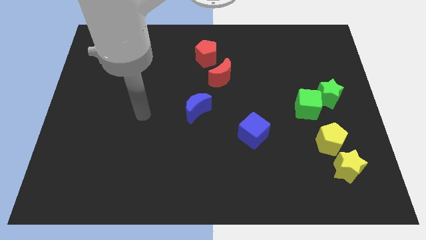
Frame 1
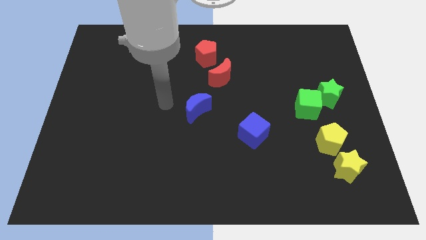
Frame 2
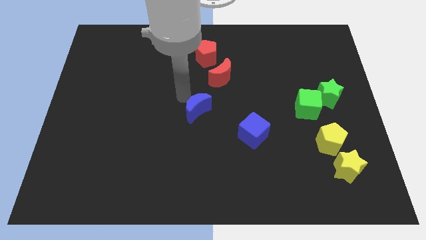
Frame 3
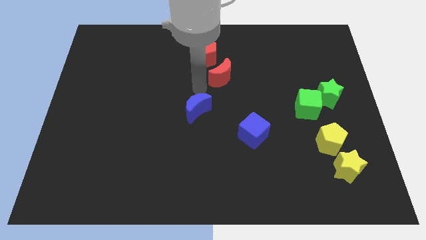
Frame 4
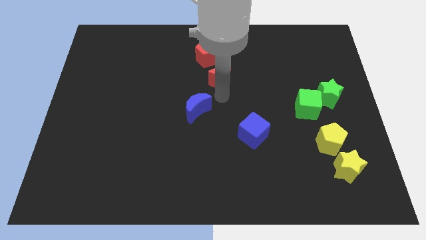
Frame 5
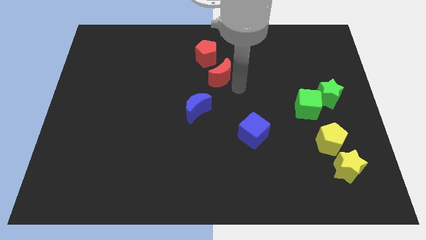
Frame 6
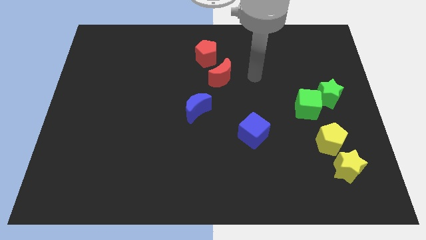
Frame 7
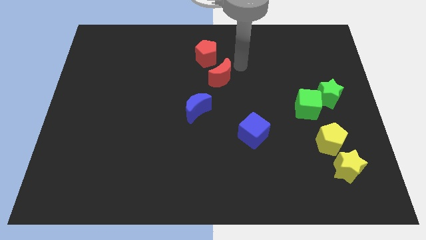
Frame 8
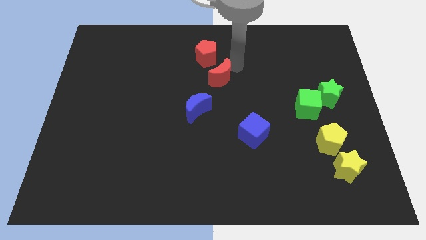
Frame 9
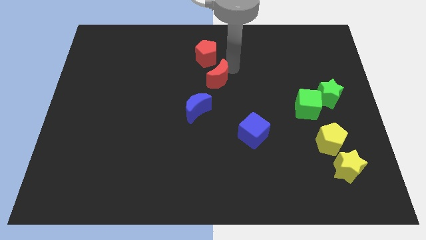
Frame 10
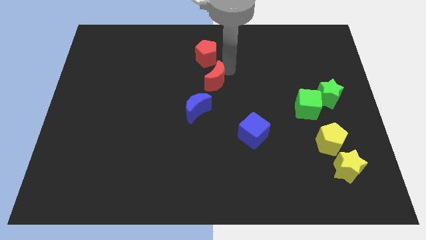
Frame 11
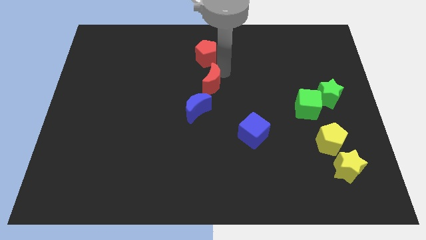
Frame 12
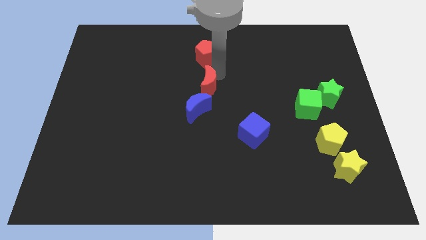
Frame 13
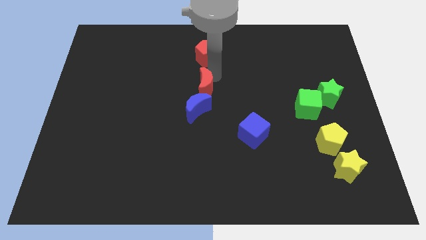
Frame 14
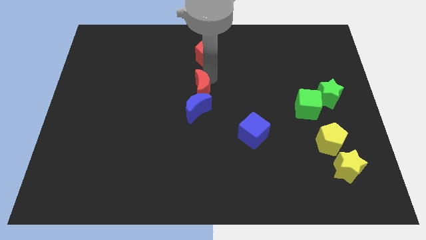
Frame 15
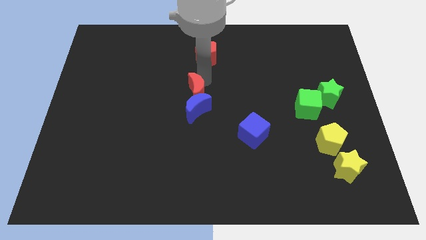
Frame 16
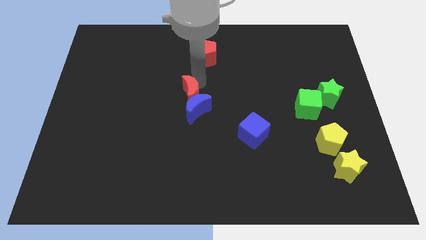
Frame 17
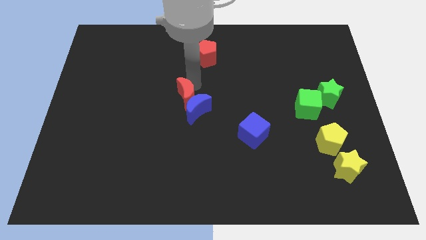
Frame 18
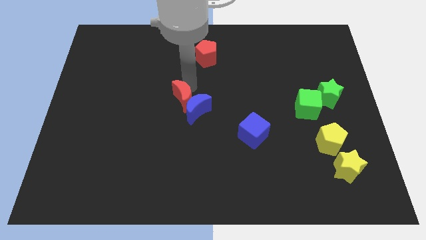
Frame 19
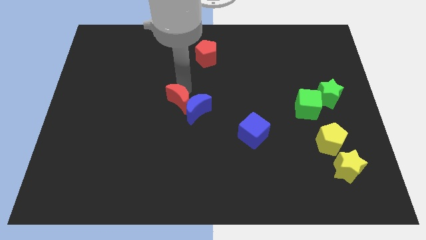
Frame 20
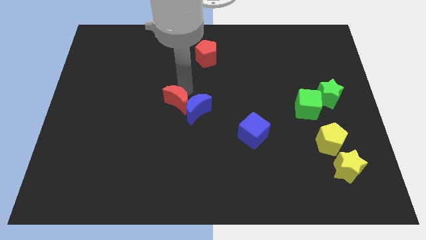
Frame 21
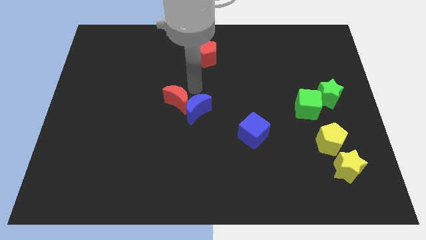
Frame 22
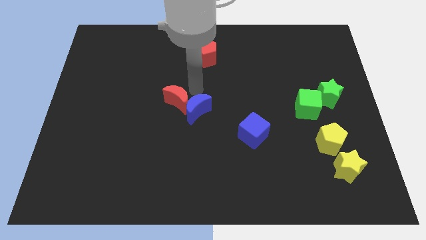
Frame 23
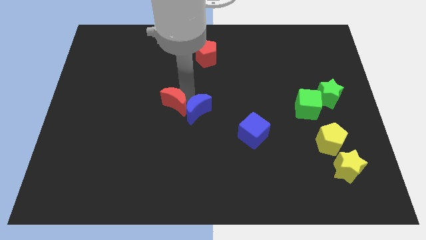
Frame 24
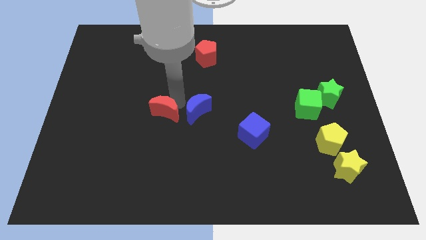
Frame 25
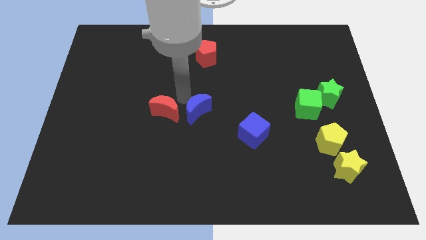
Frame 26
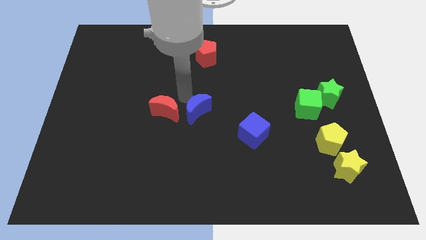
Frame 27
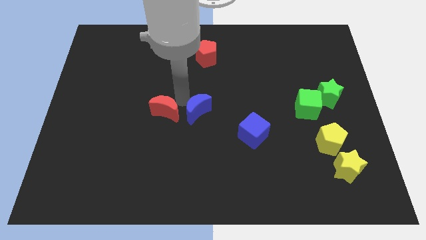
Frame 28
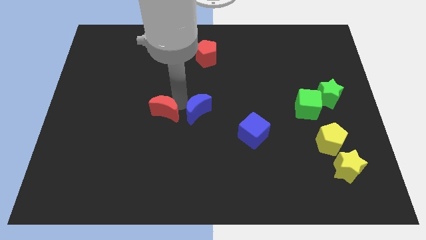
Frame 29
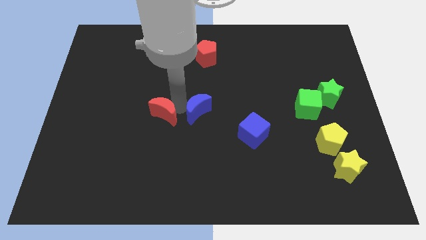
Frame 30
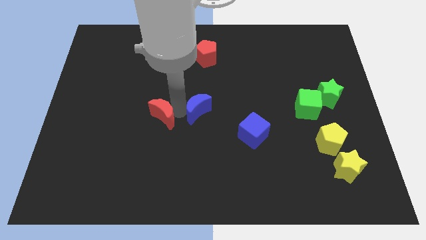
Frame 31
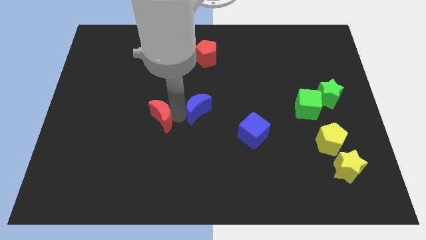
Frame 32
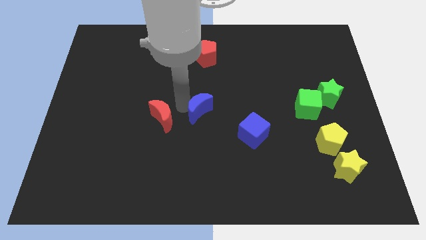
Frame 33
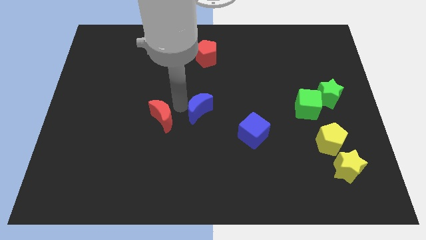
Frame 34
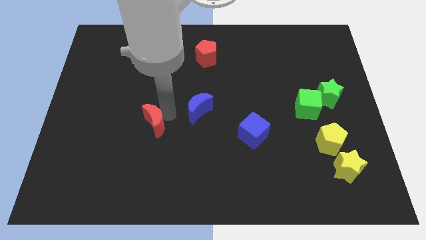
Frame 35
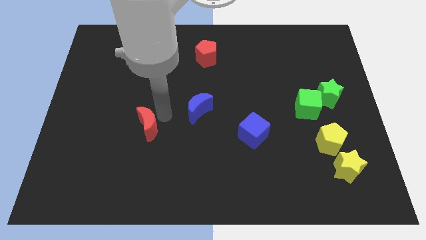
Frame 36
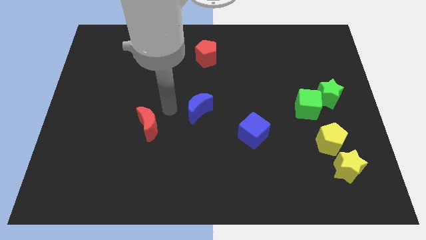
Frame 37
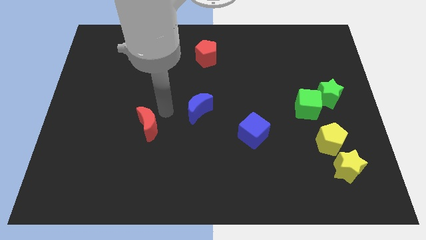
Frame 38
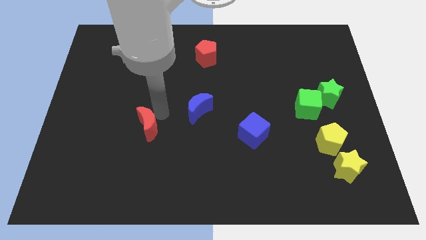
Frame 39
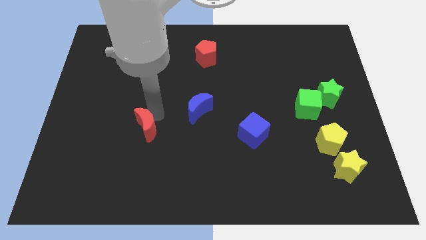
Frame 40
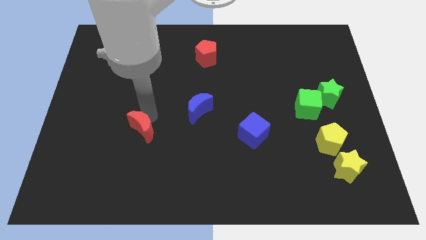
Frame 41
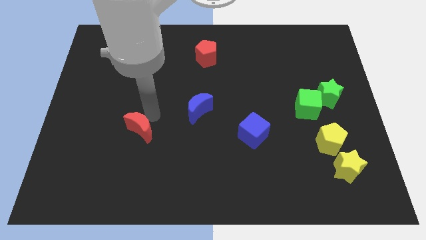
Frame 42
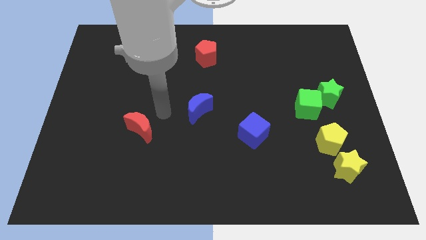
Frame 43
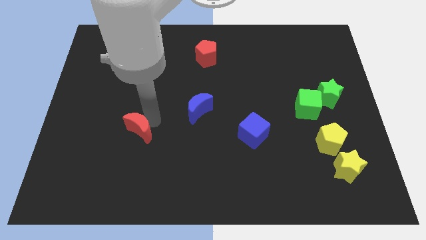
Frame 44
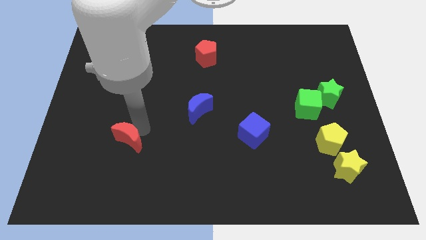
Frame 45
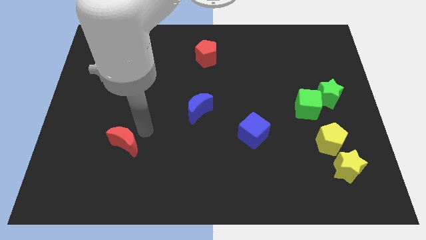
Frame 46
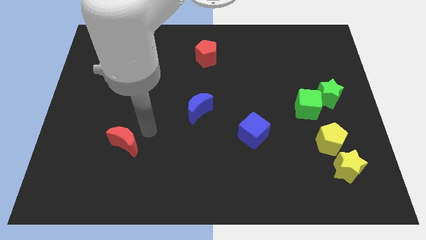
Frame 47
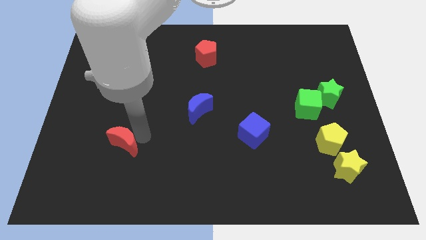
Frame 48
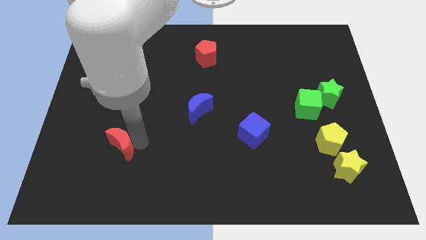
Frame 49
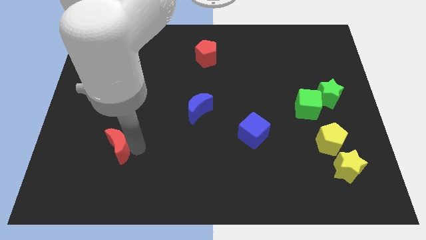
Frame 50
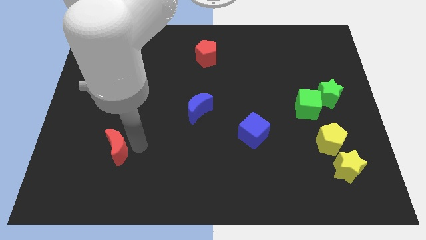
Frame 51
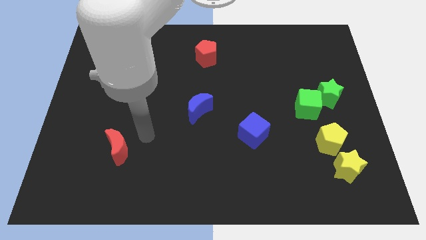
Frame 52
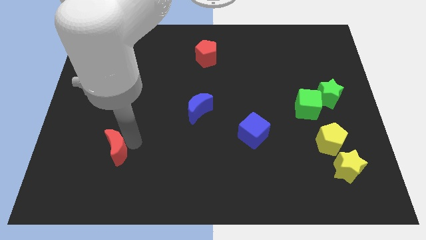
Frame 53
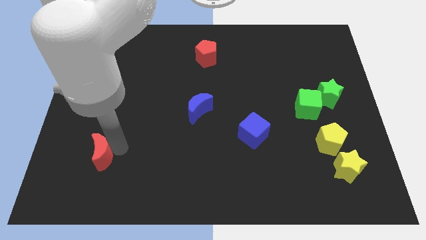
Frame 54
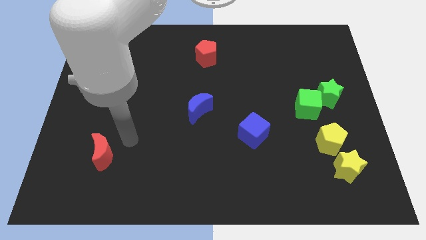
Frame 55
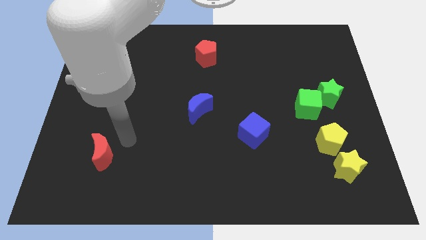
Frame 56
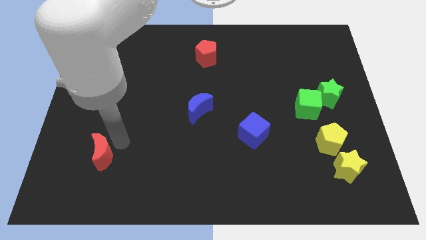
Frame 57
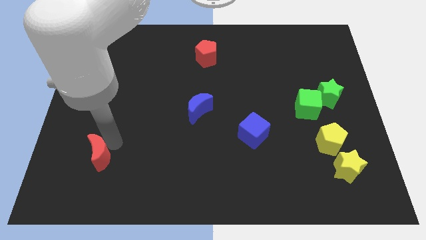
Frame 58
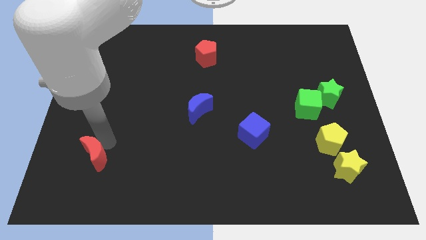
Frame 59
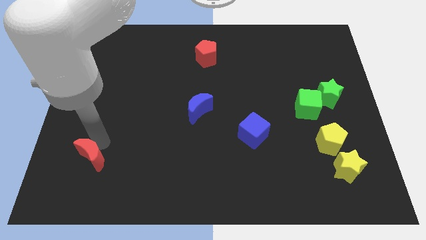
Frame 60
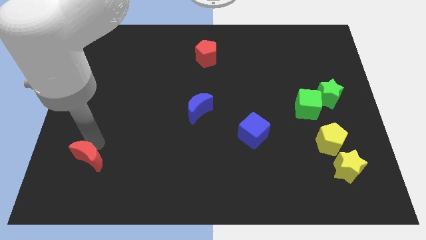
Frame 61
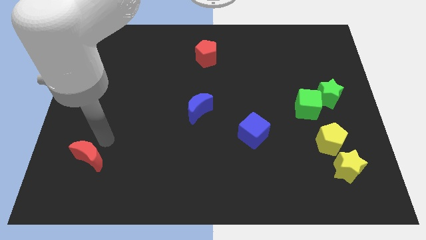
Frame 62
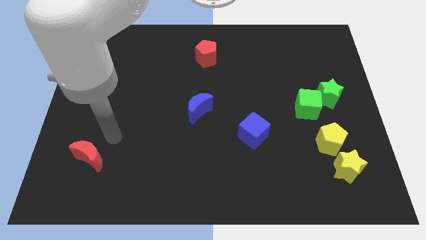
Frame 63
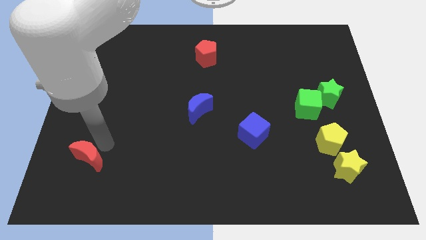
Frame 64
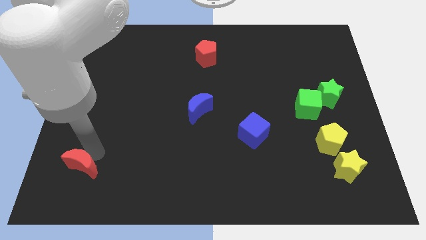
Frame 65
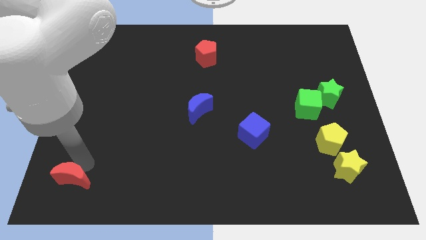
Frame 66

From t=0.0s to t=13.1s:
slide the red moon to the bottom left of the board
